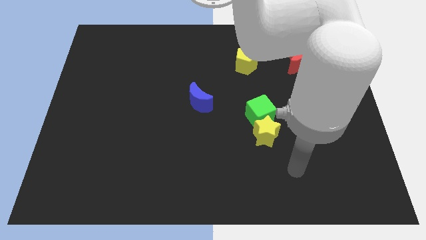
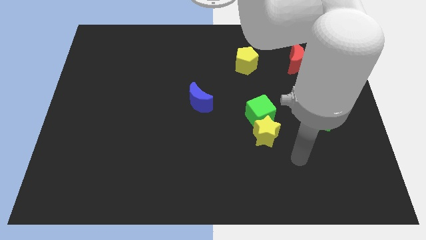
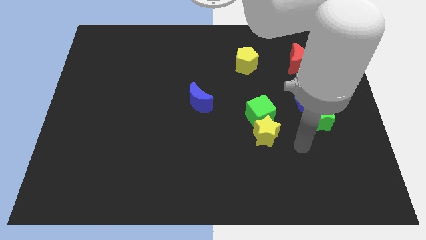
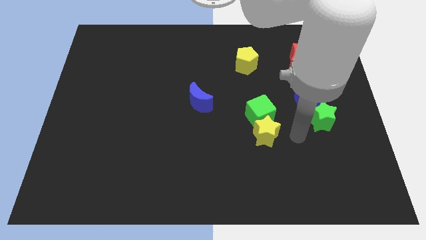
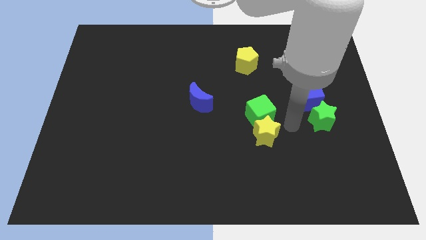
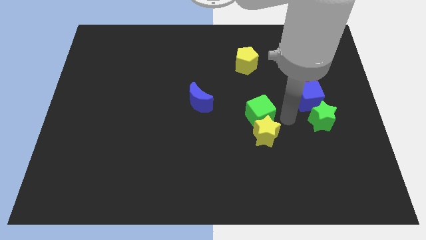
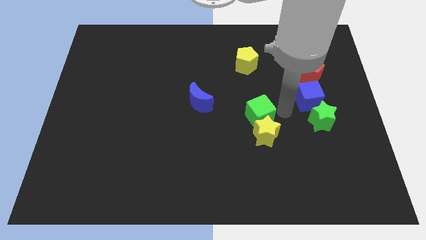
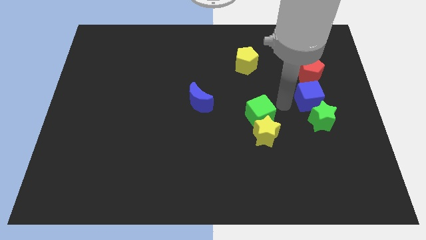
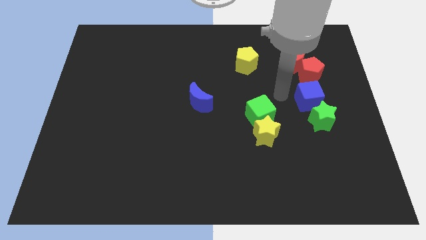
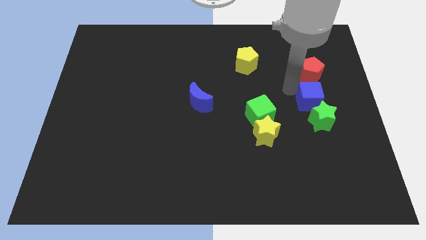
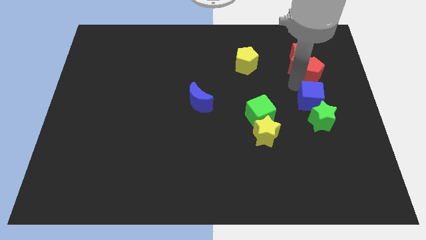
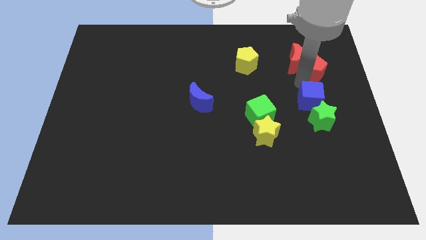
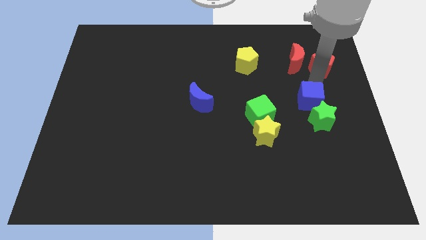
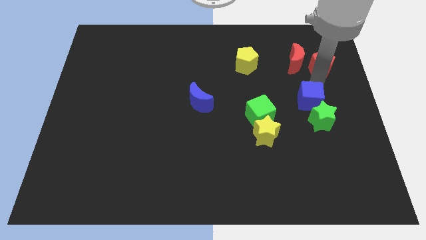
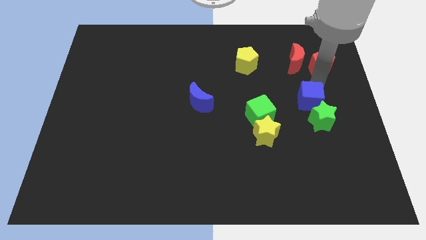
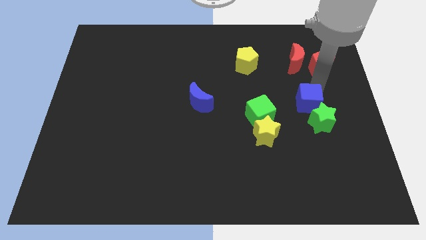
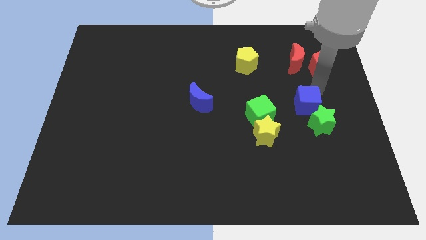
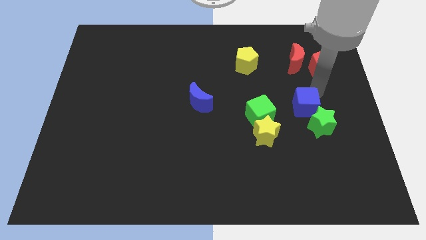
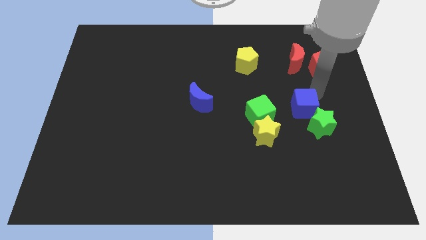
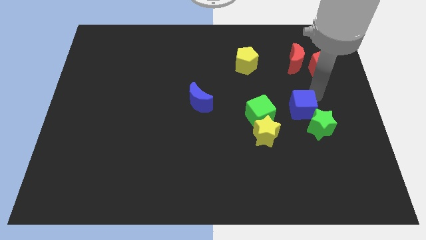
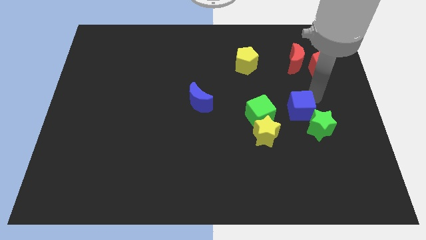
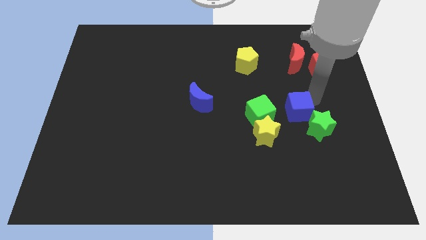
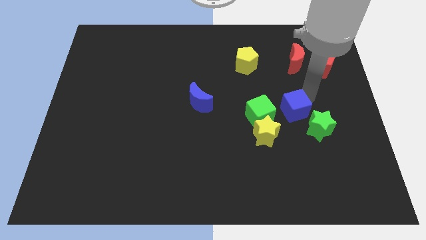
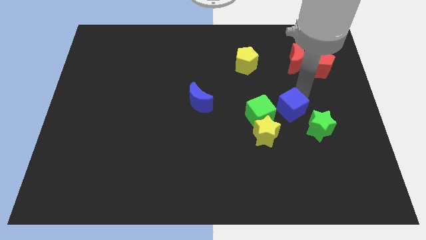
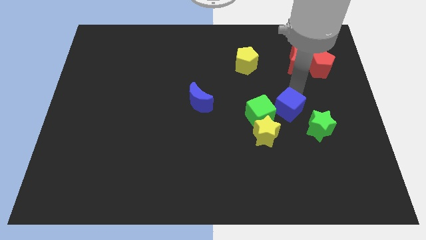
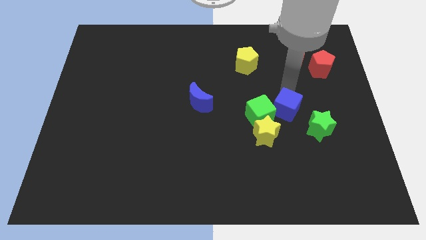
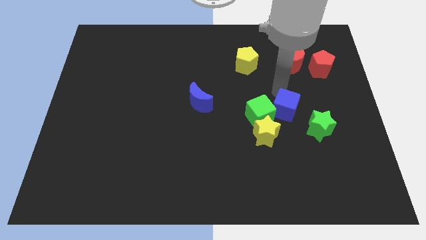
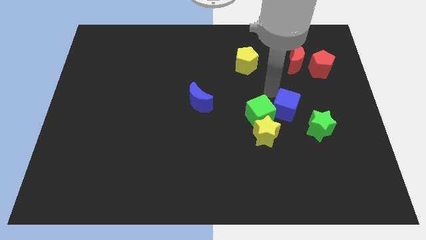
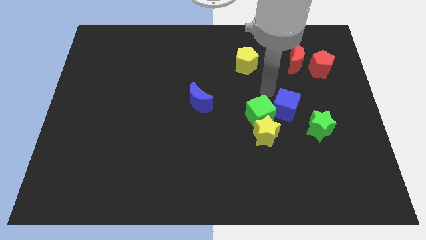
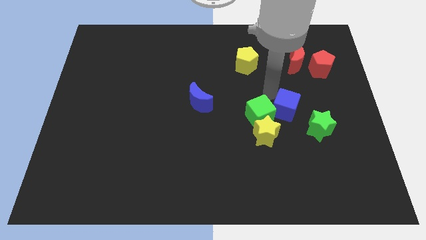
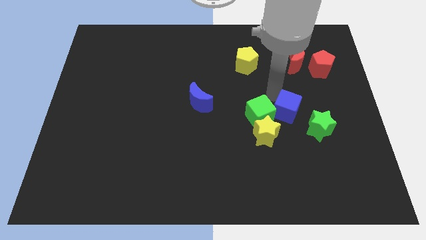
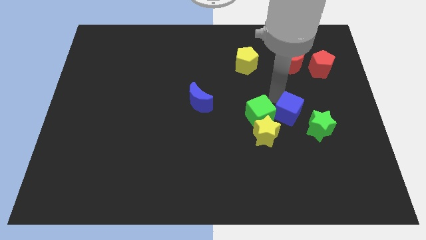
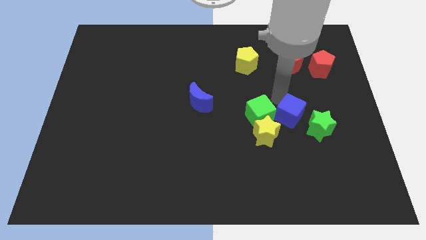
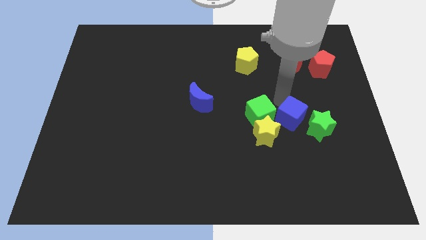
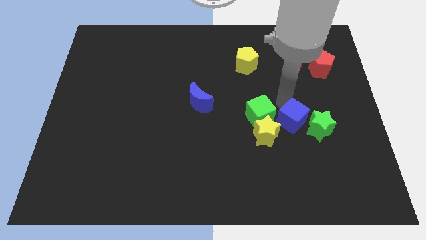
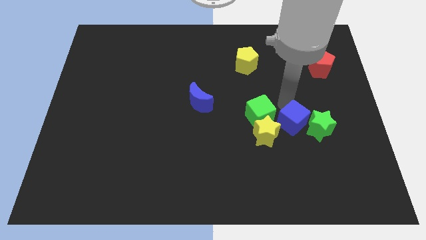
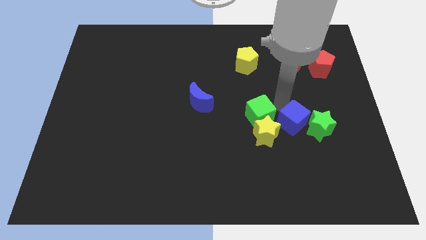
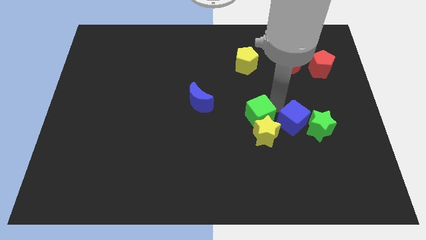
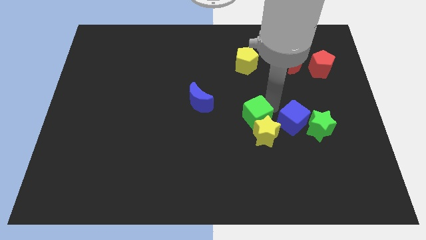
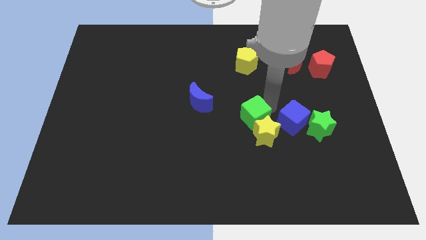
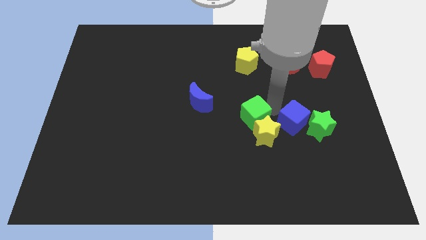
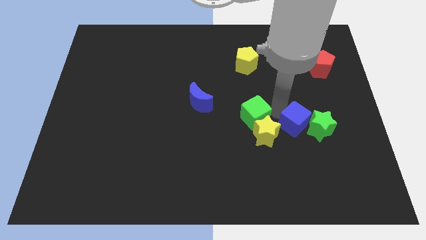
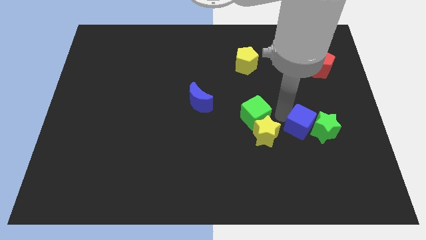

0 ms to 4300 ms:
slide the blue cube downwards a bit

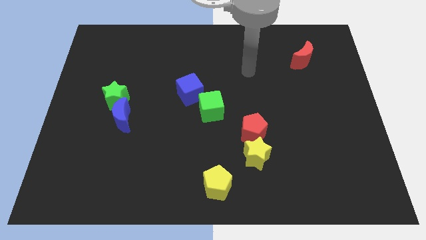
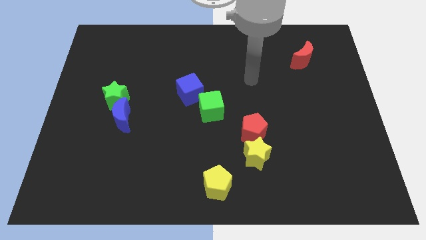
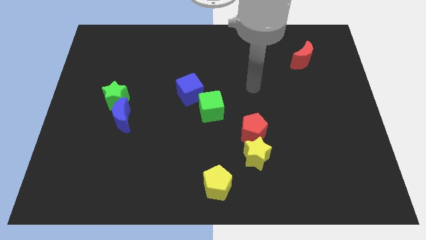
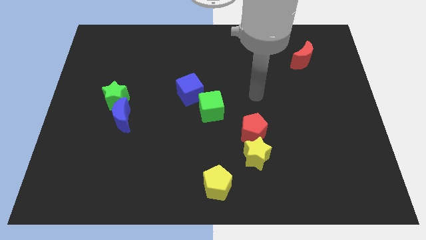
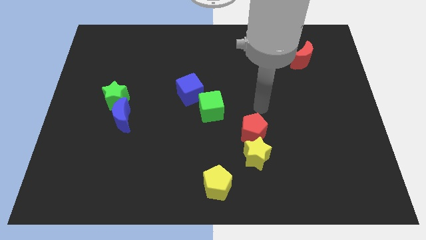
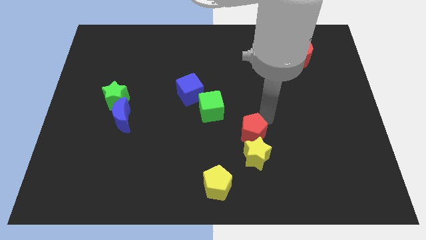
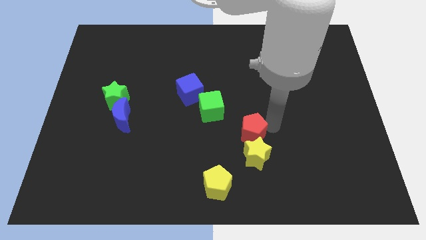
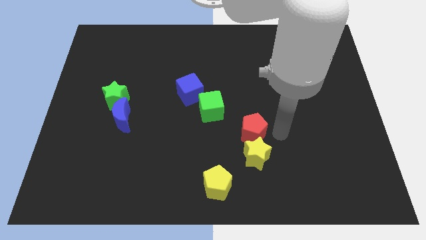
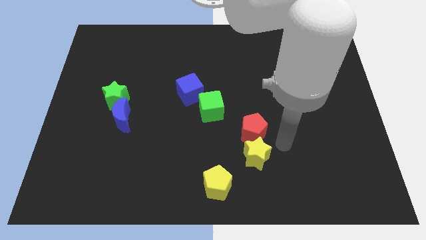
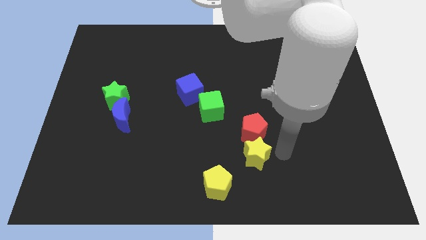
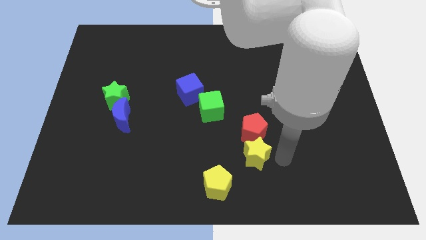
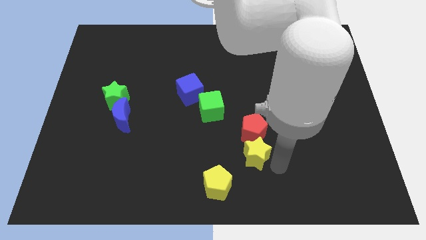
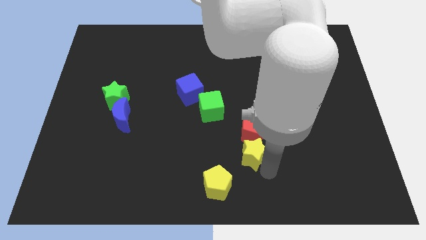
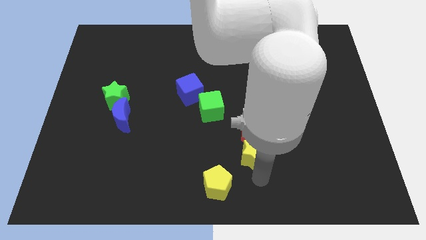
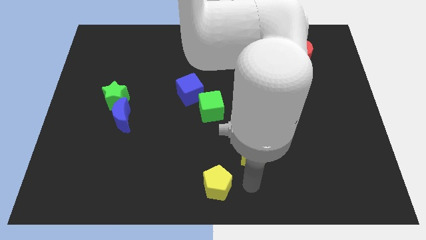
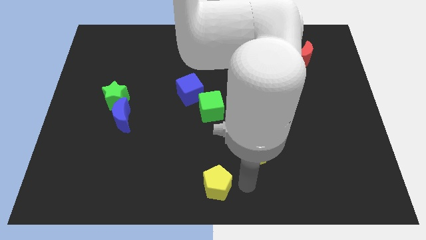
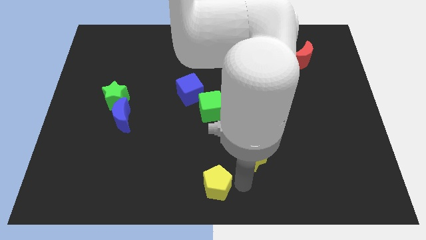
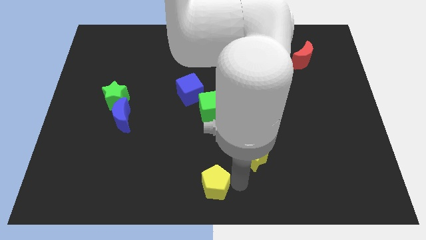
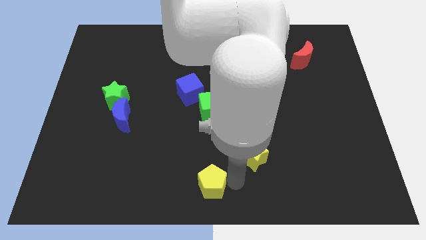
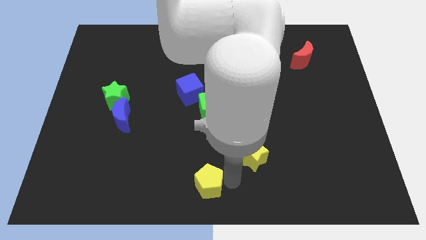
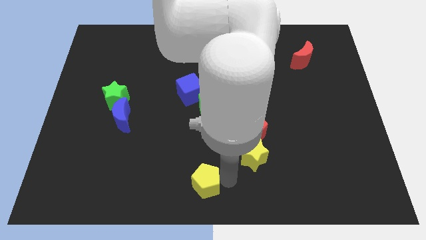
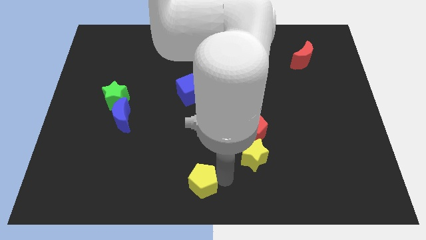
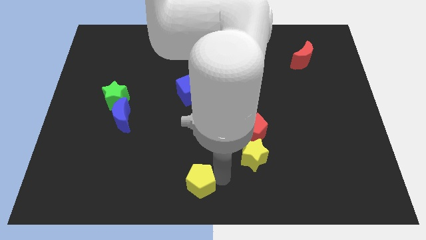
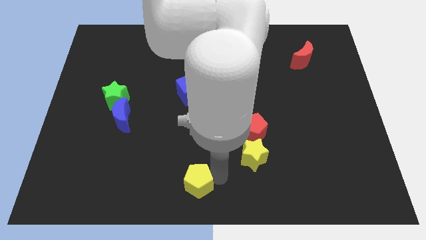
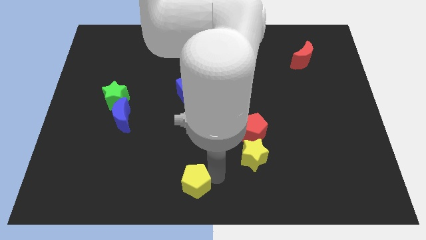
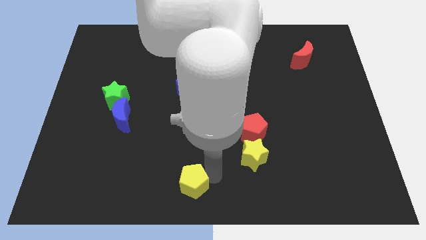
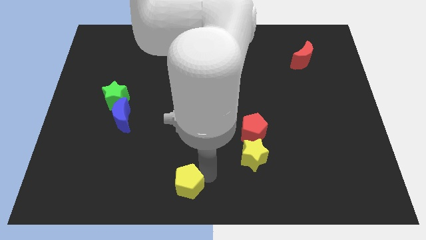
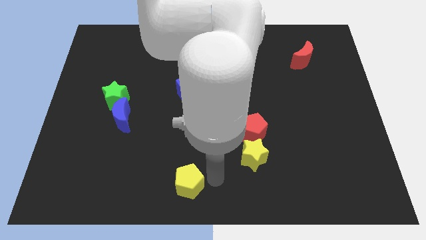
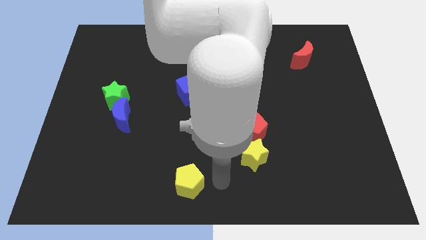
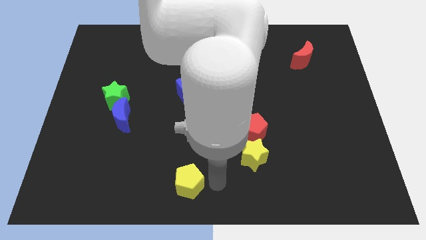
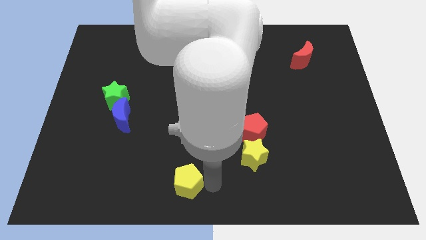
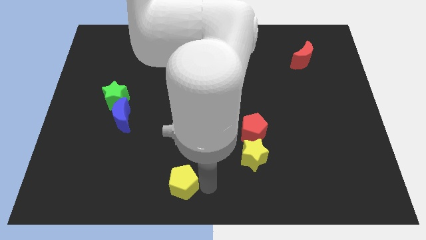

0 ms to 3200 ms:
push the yellow pentagon slightly to the left

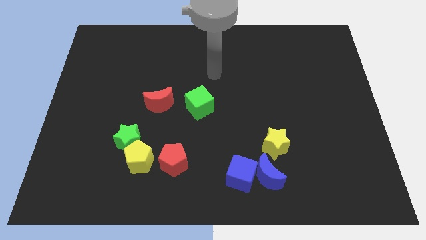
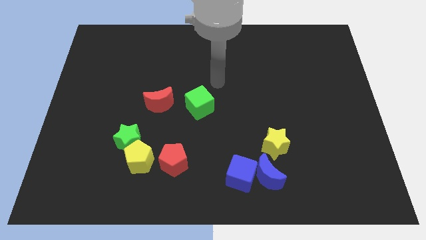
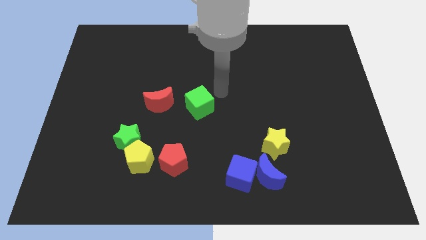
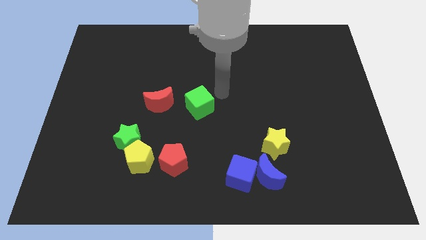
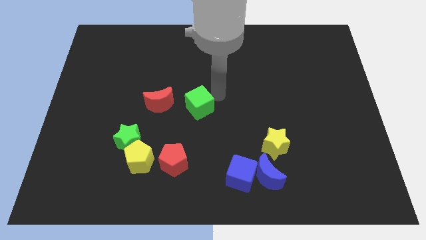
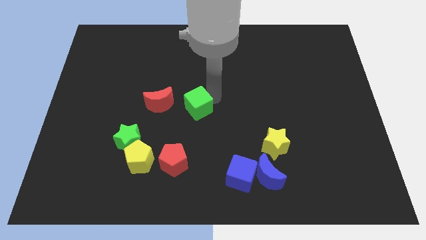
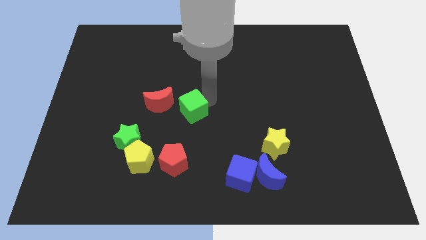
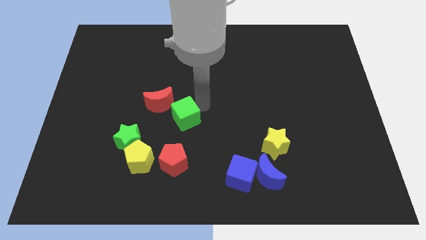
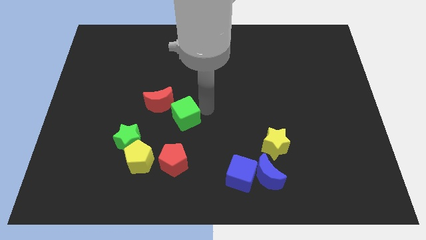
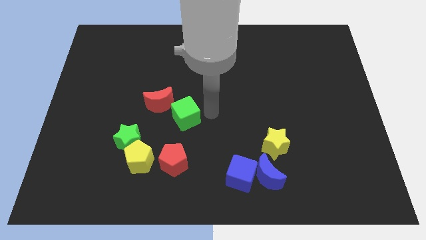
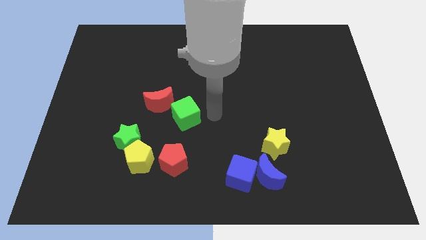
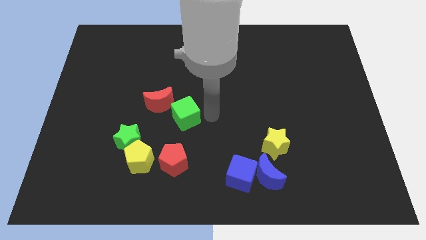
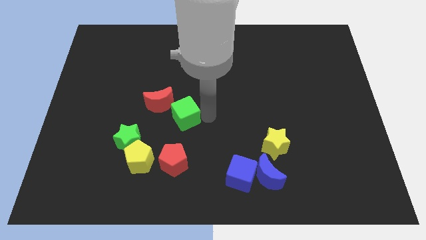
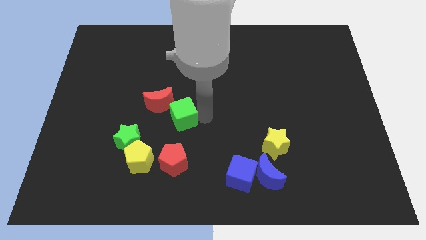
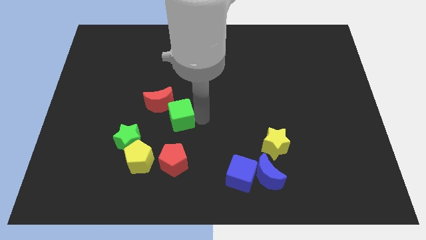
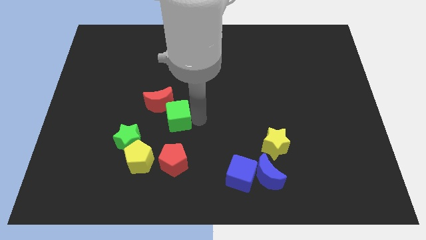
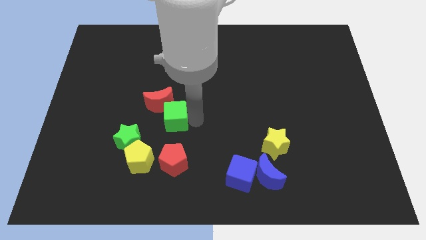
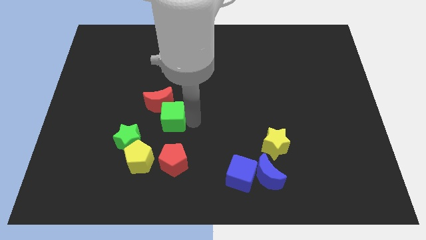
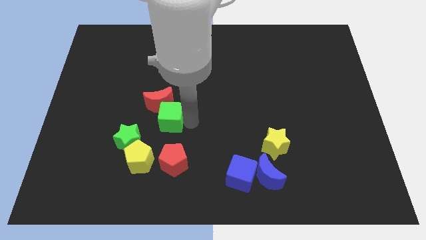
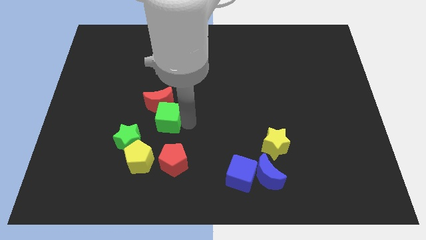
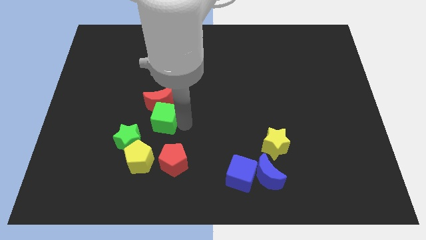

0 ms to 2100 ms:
slightly slide the green cube to the left
